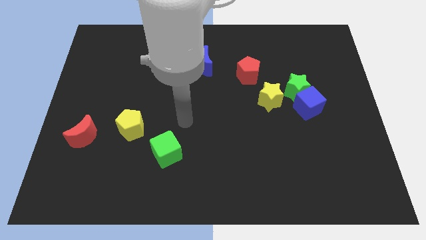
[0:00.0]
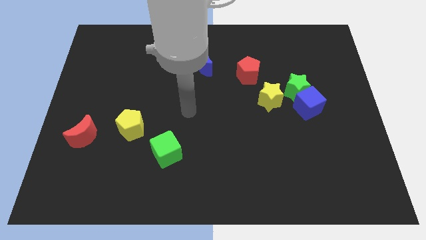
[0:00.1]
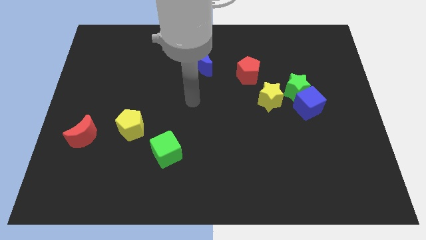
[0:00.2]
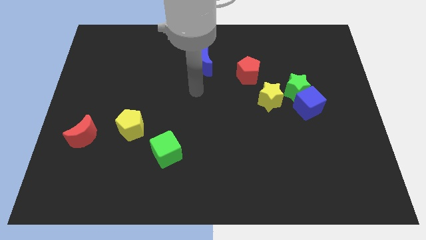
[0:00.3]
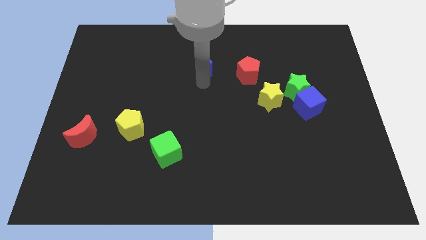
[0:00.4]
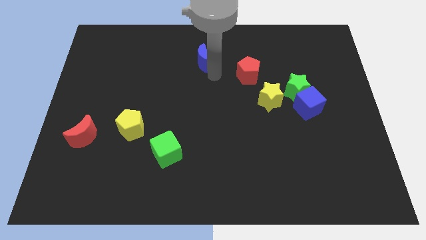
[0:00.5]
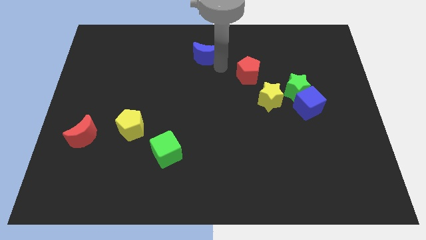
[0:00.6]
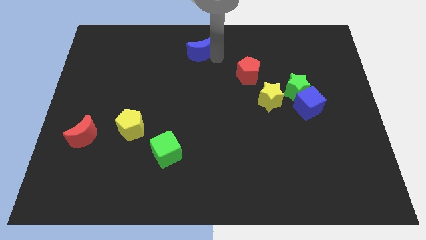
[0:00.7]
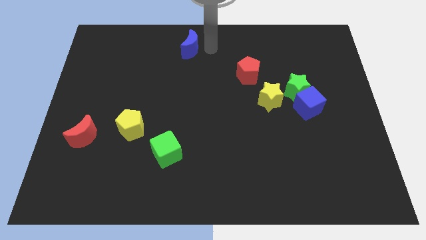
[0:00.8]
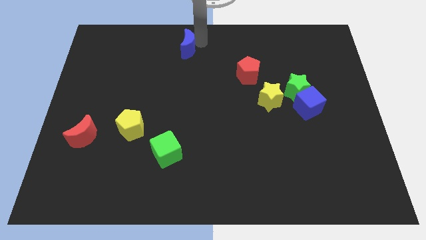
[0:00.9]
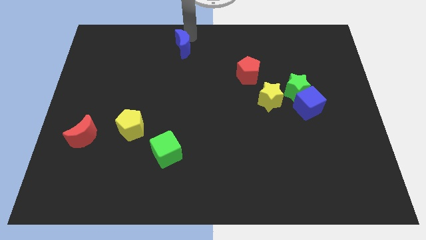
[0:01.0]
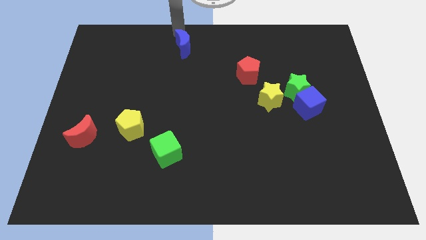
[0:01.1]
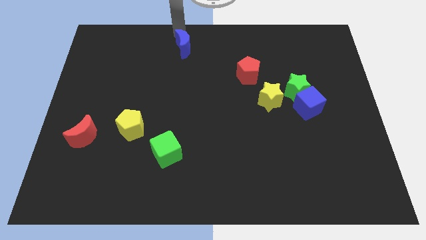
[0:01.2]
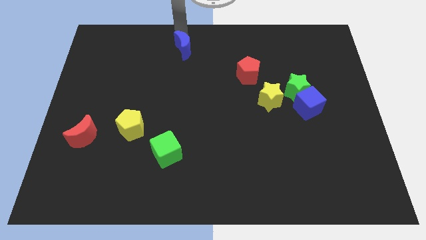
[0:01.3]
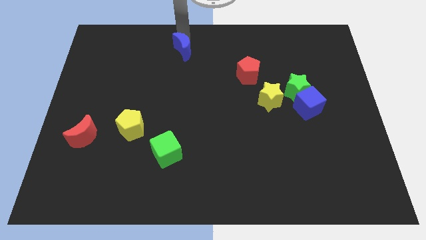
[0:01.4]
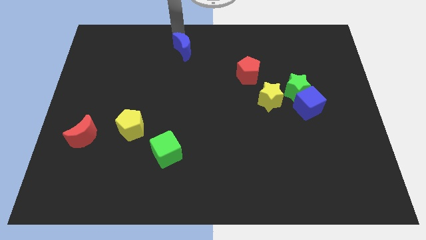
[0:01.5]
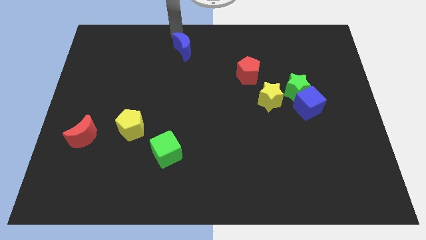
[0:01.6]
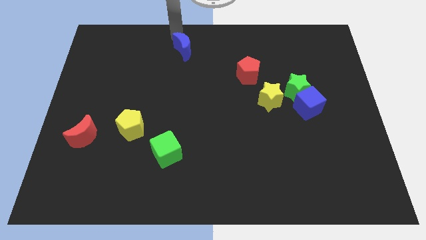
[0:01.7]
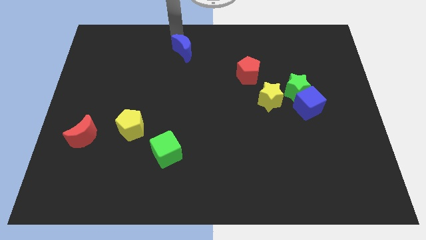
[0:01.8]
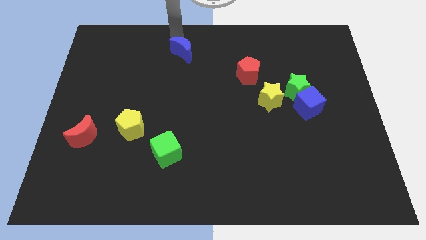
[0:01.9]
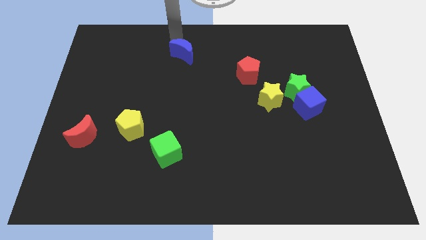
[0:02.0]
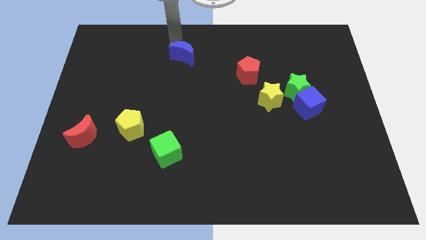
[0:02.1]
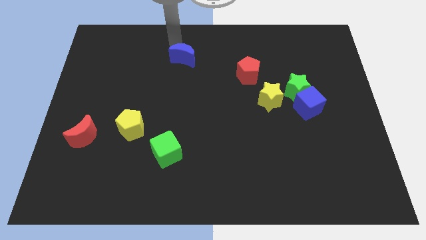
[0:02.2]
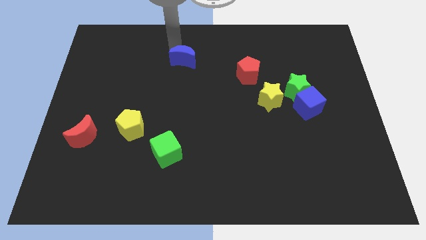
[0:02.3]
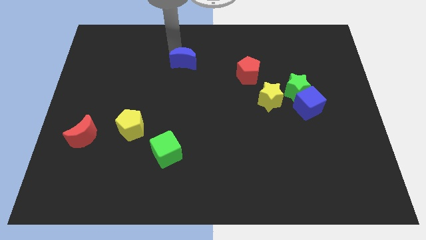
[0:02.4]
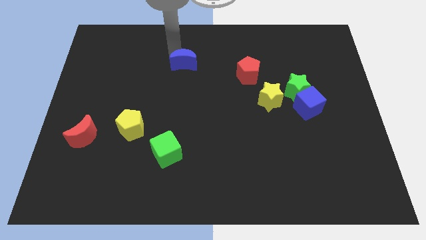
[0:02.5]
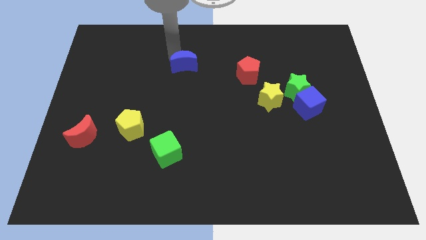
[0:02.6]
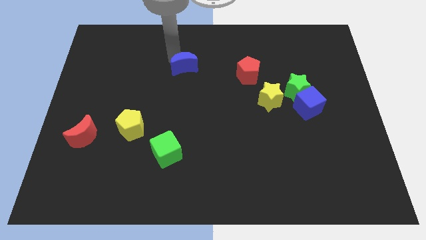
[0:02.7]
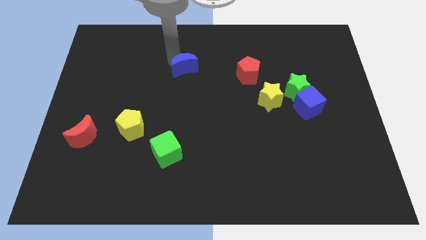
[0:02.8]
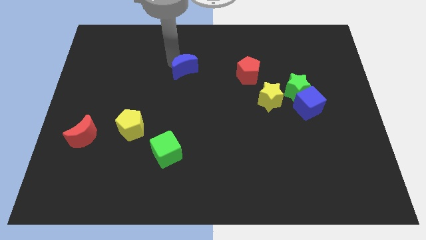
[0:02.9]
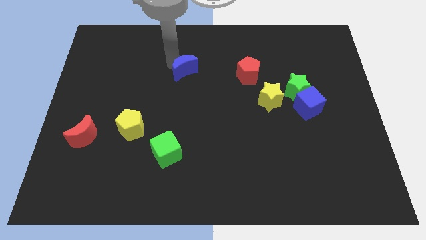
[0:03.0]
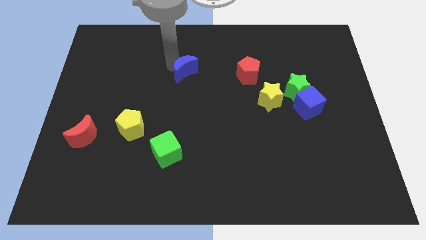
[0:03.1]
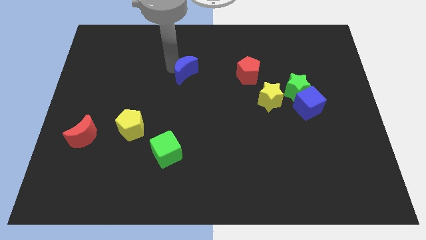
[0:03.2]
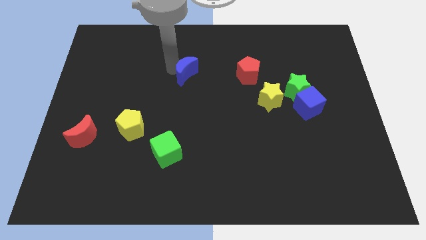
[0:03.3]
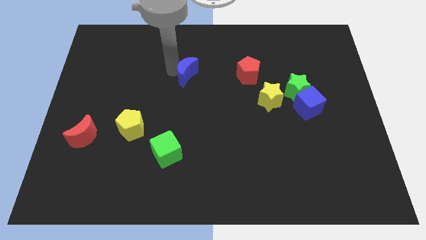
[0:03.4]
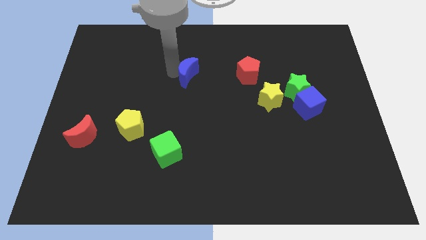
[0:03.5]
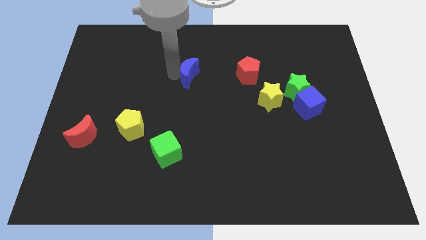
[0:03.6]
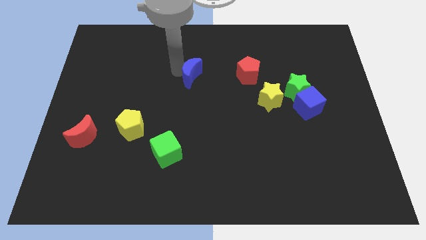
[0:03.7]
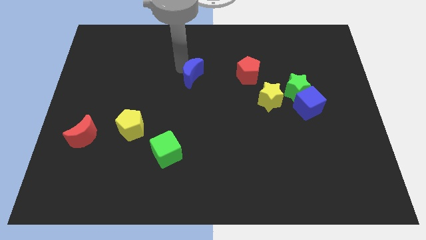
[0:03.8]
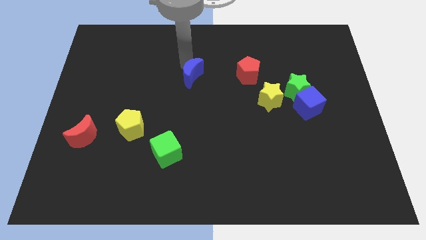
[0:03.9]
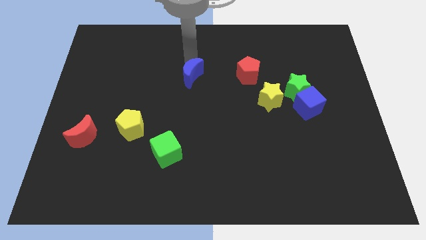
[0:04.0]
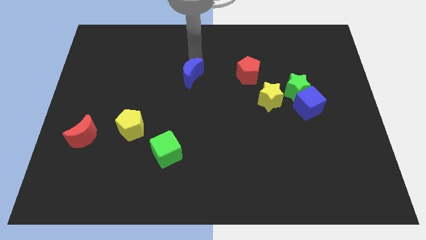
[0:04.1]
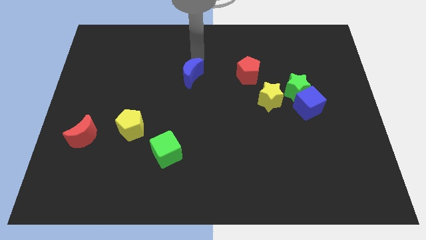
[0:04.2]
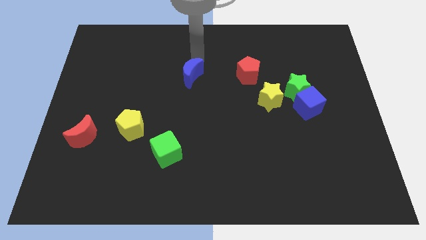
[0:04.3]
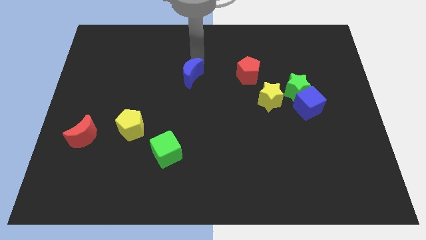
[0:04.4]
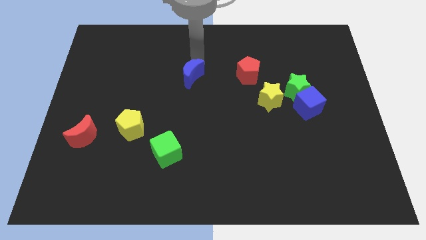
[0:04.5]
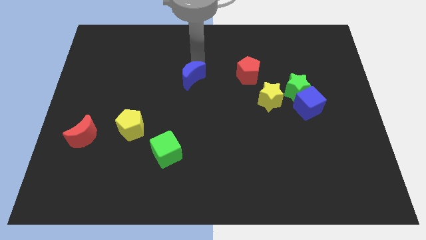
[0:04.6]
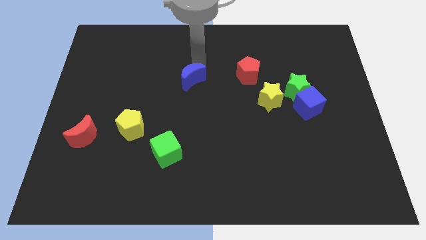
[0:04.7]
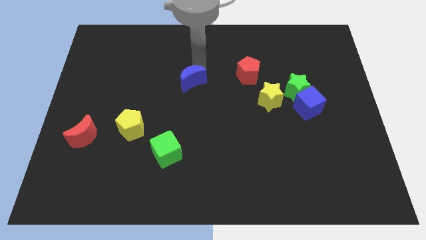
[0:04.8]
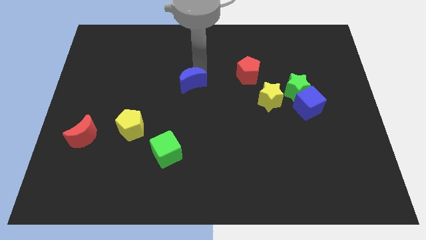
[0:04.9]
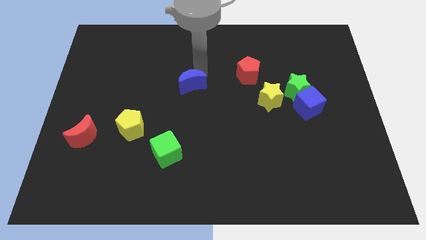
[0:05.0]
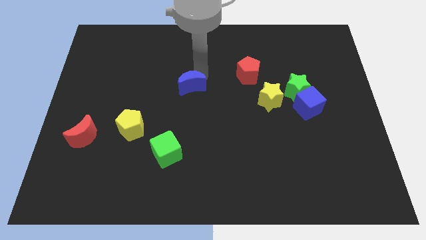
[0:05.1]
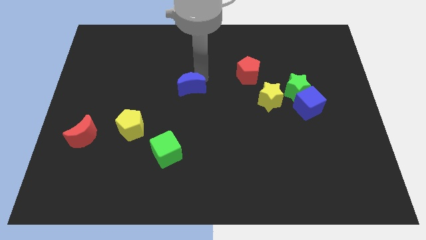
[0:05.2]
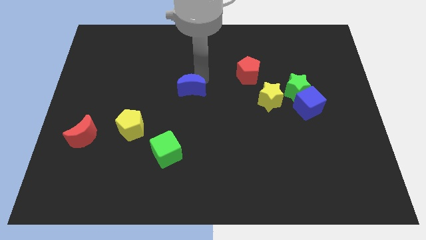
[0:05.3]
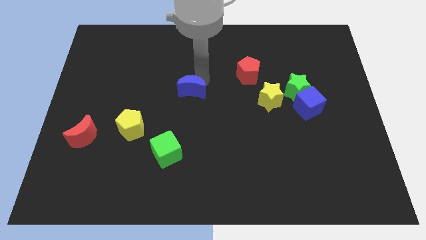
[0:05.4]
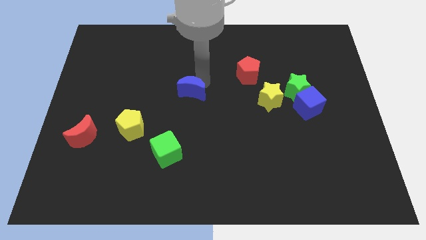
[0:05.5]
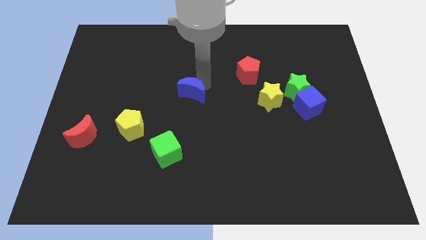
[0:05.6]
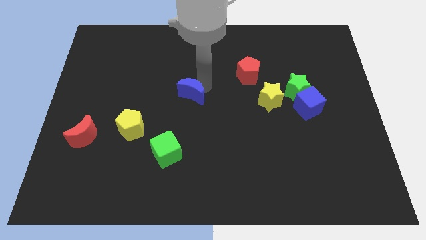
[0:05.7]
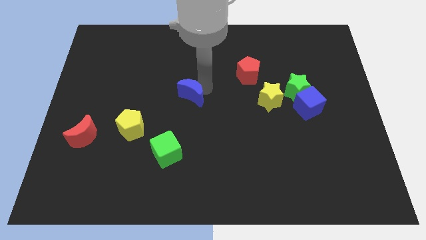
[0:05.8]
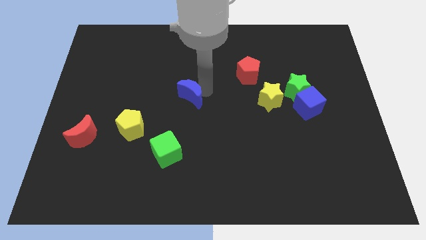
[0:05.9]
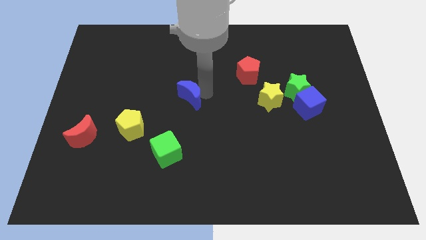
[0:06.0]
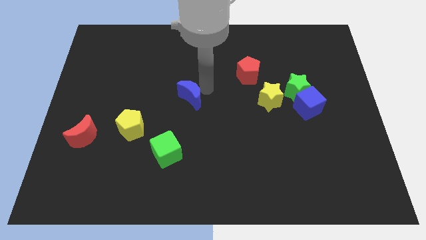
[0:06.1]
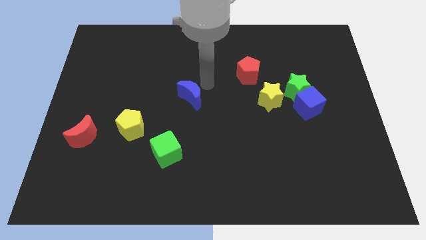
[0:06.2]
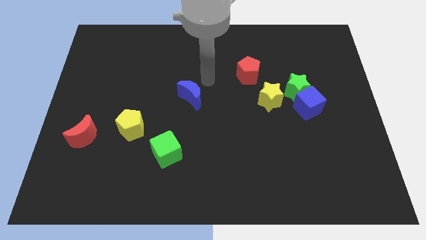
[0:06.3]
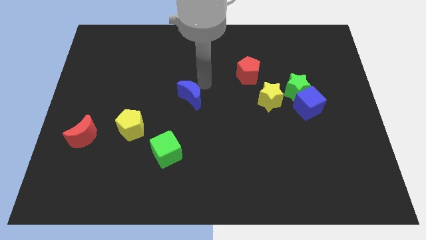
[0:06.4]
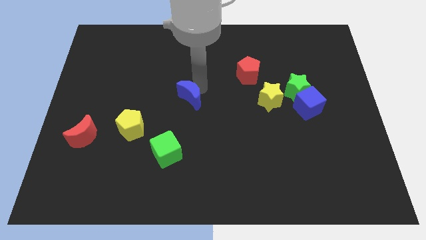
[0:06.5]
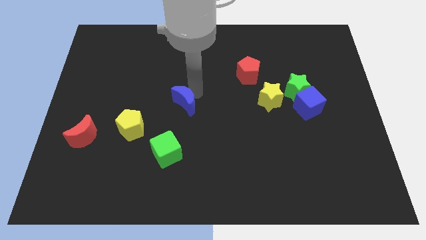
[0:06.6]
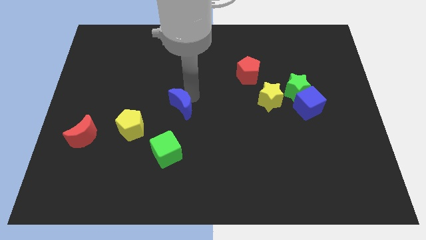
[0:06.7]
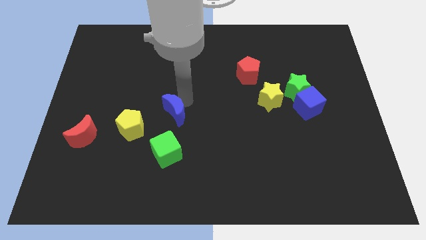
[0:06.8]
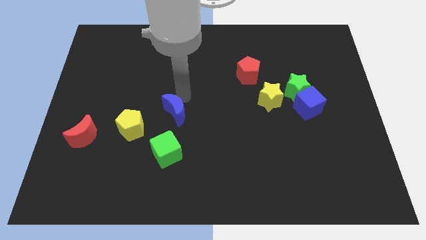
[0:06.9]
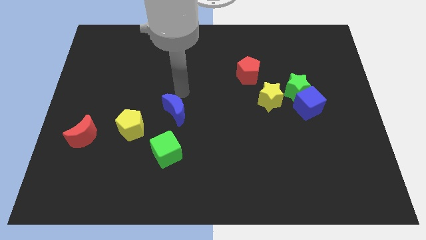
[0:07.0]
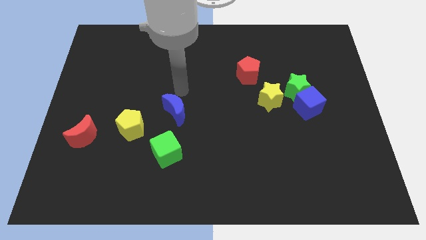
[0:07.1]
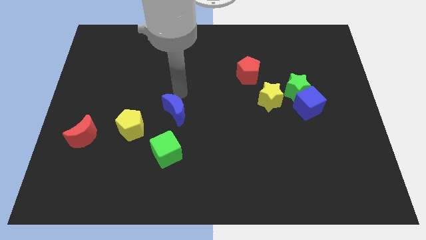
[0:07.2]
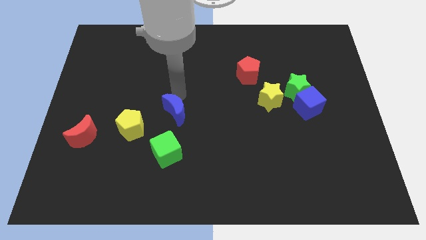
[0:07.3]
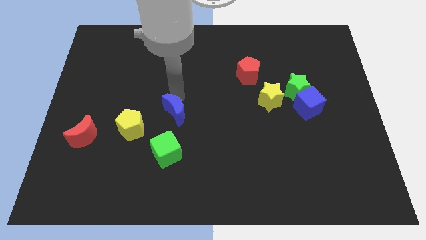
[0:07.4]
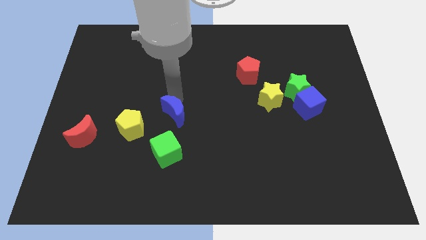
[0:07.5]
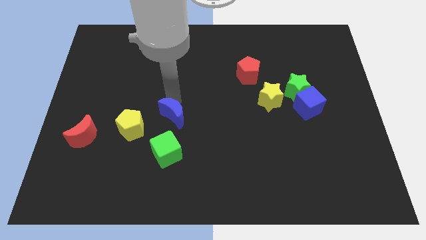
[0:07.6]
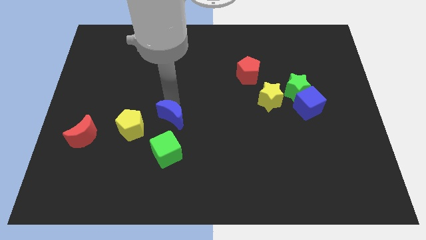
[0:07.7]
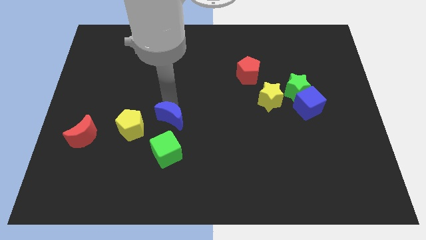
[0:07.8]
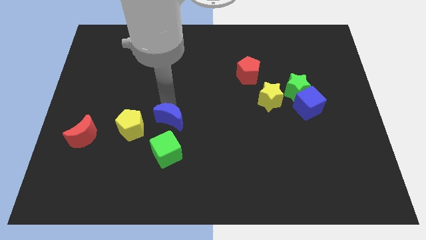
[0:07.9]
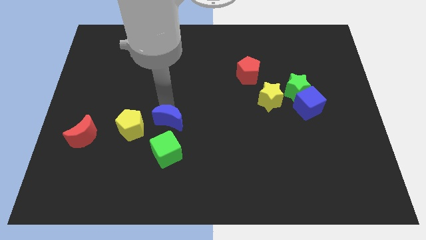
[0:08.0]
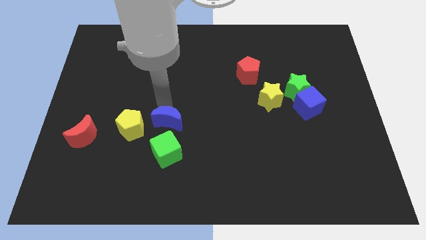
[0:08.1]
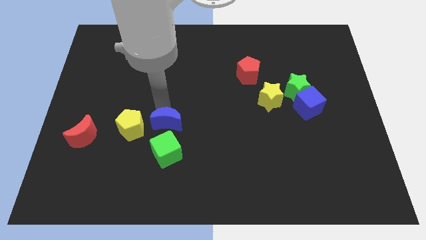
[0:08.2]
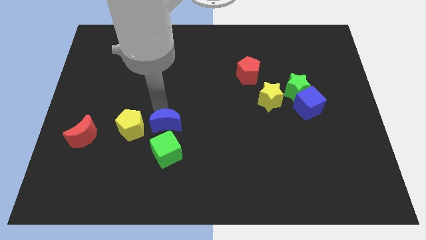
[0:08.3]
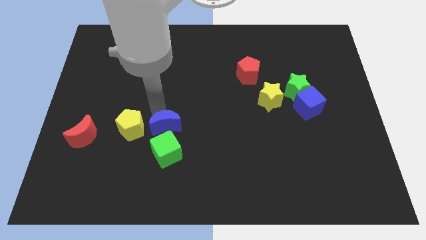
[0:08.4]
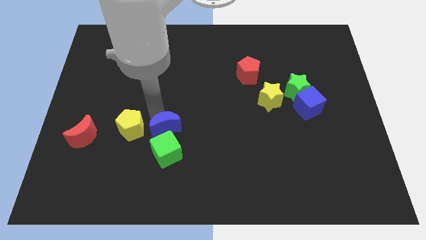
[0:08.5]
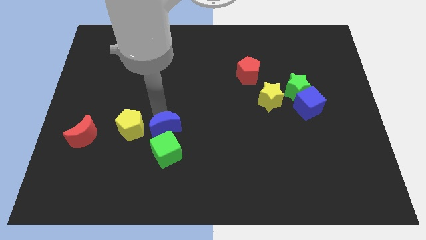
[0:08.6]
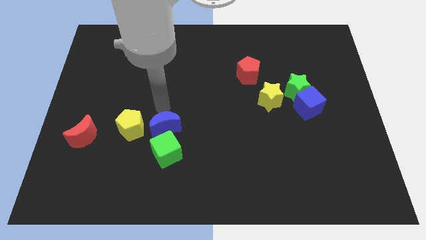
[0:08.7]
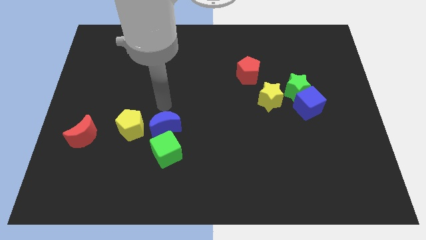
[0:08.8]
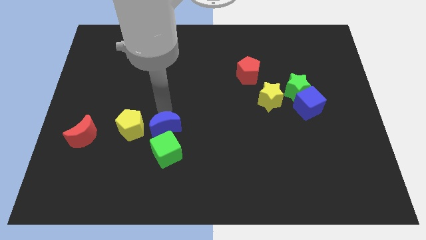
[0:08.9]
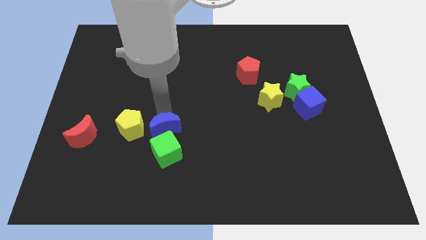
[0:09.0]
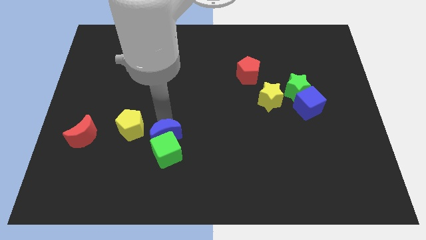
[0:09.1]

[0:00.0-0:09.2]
push the blue moon towards the green cube
